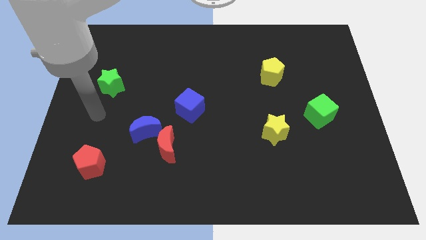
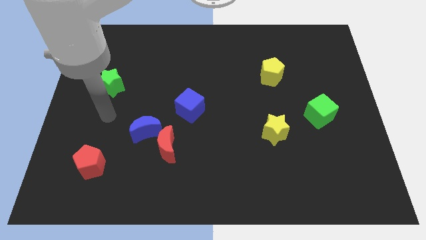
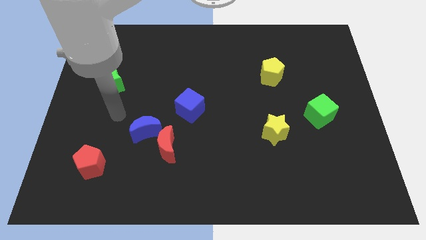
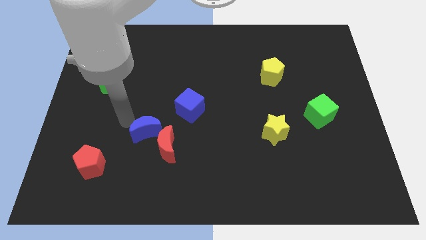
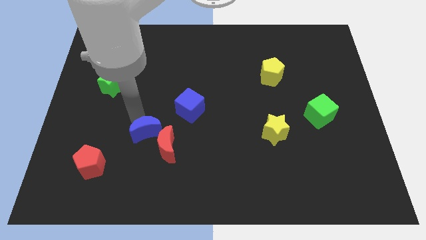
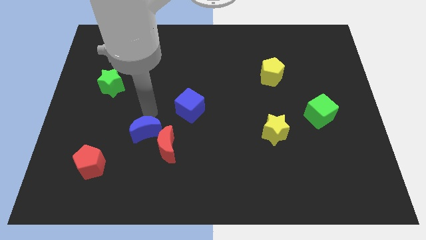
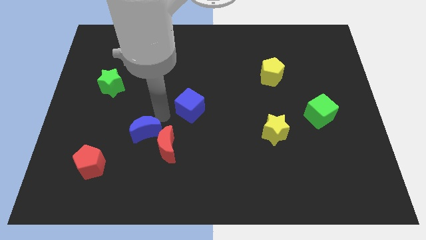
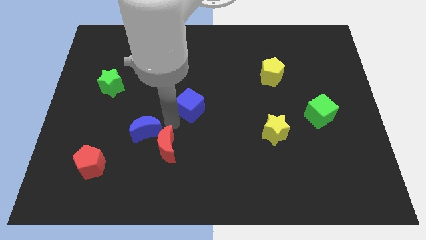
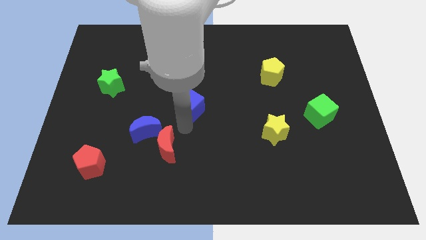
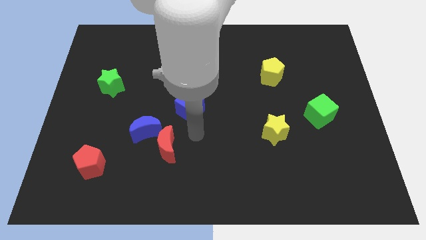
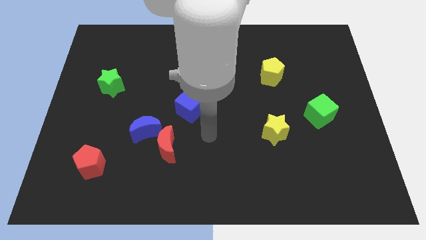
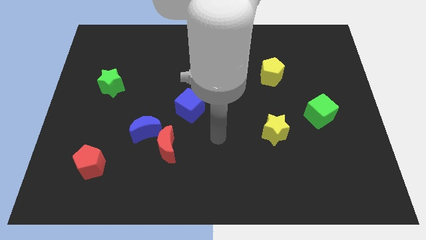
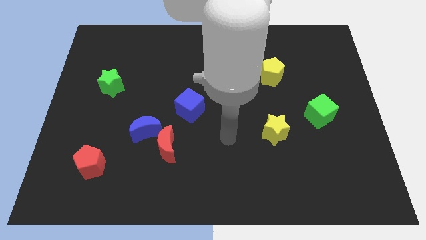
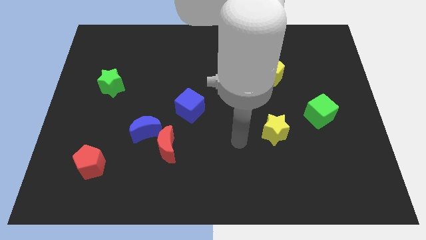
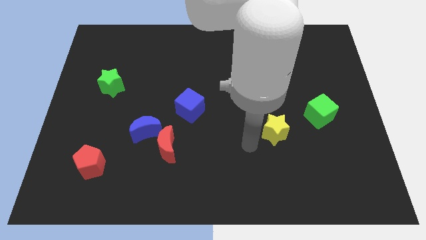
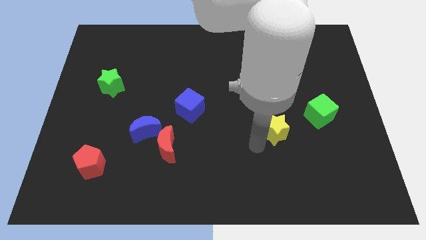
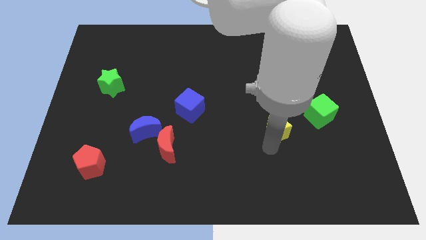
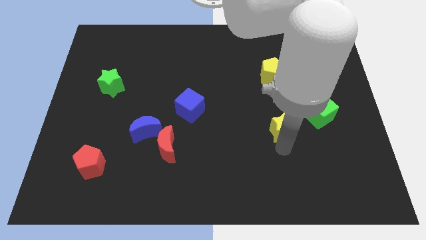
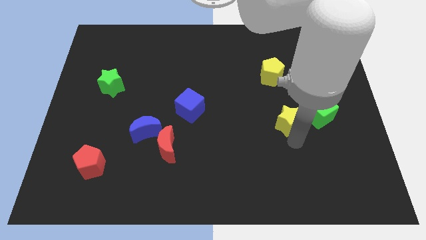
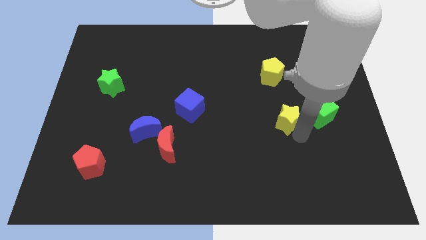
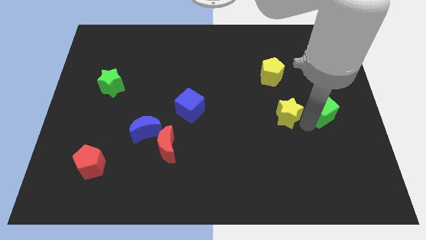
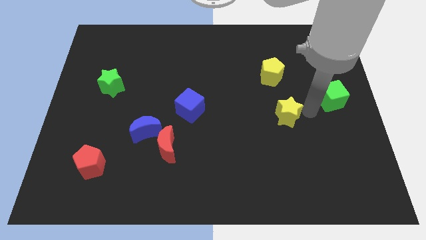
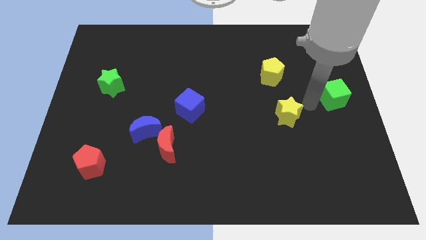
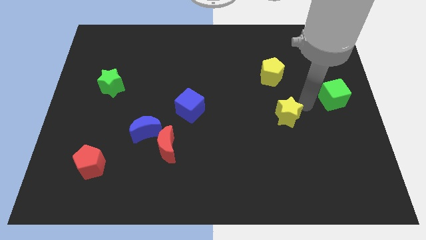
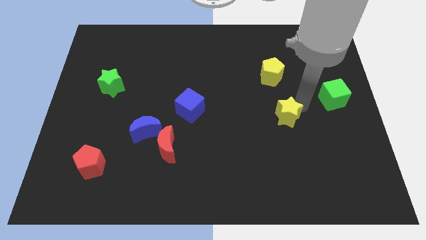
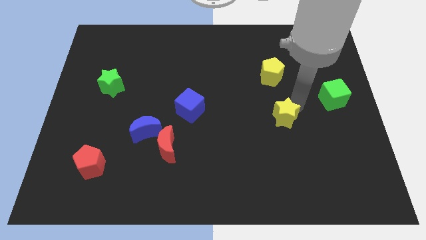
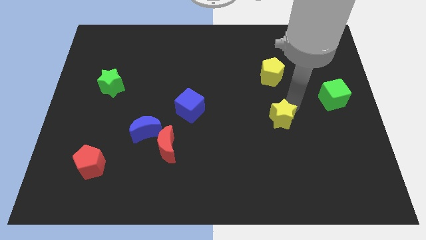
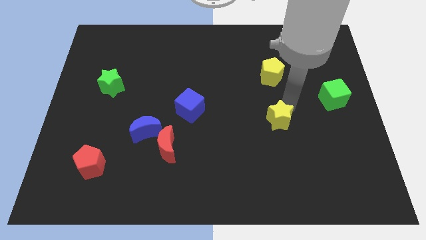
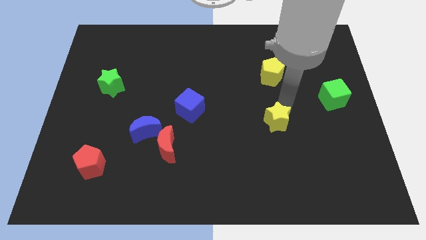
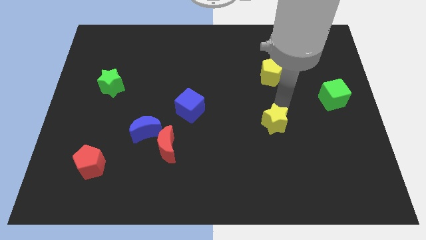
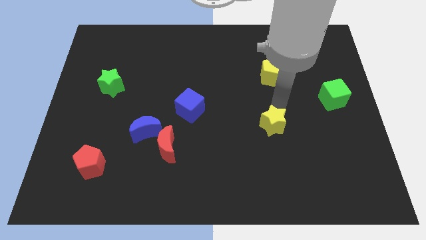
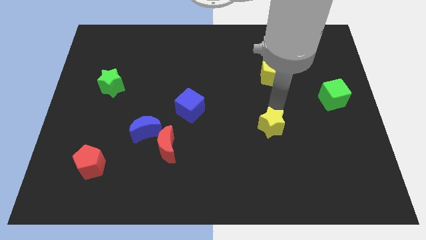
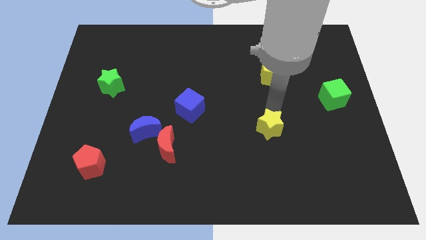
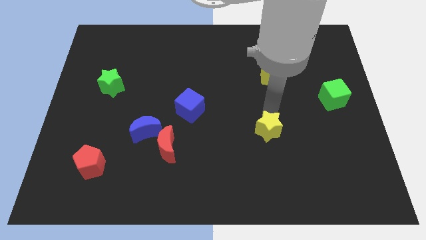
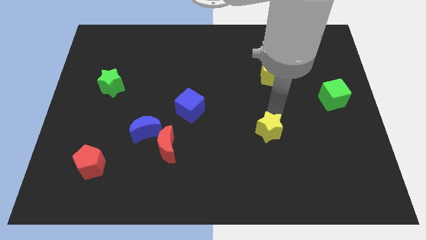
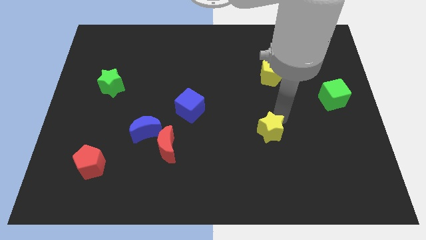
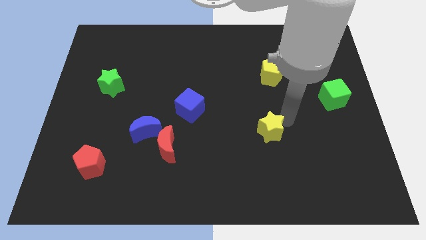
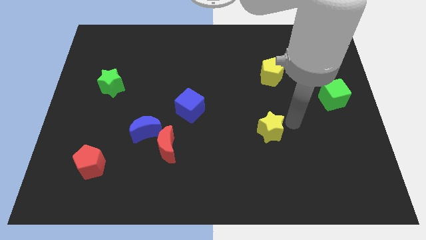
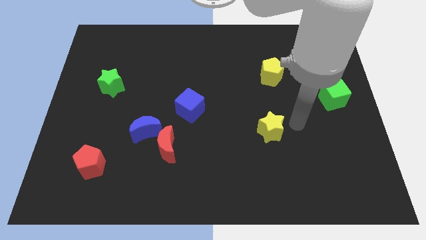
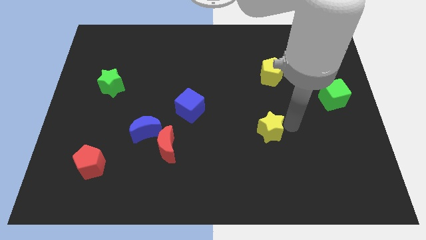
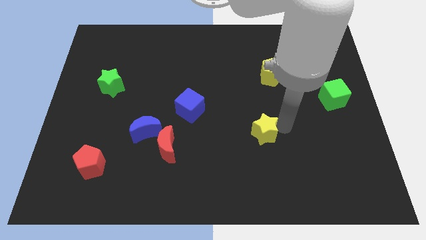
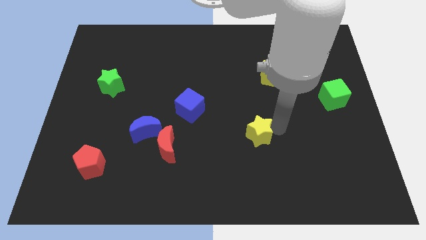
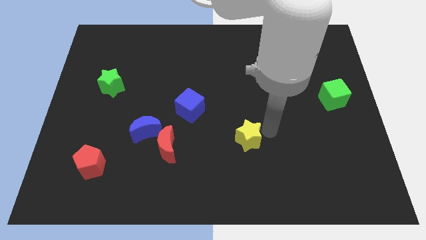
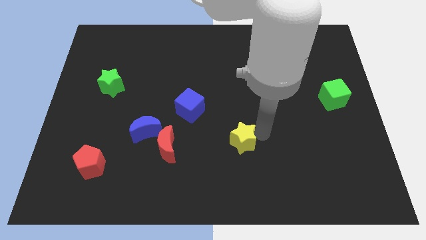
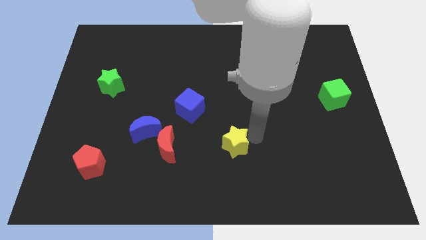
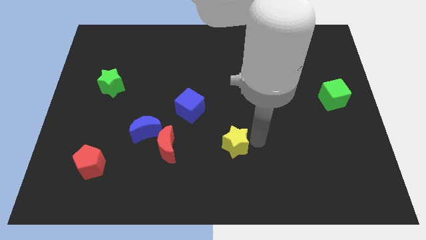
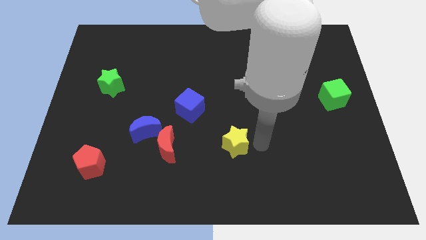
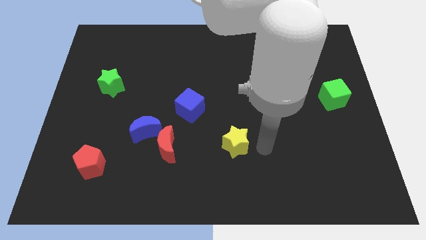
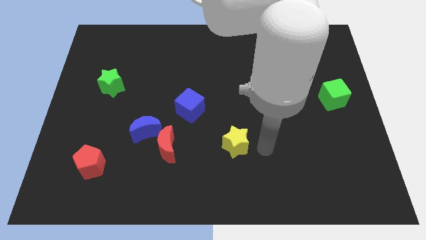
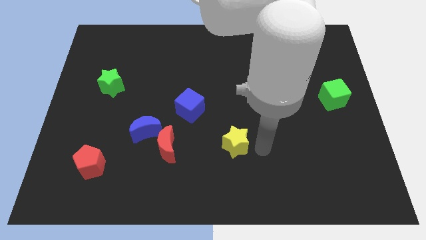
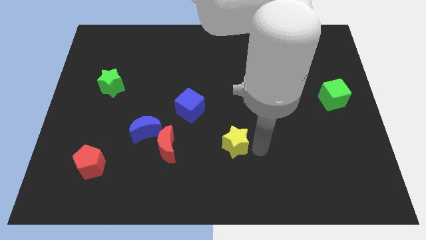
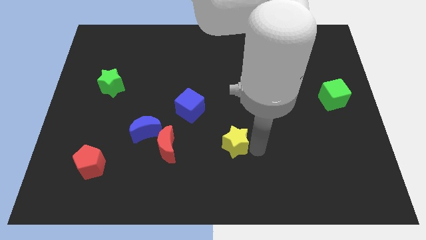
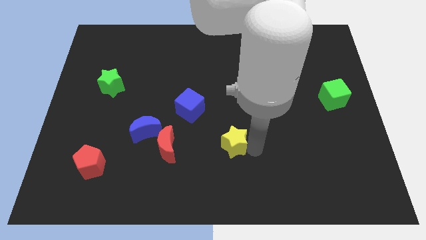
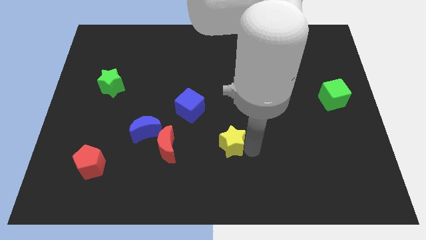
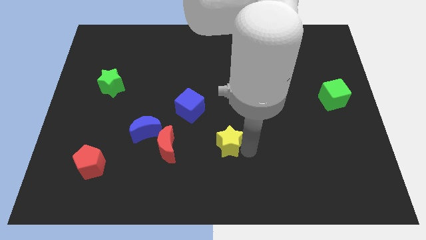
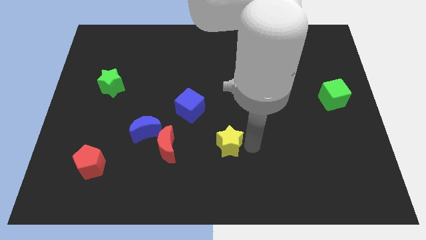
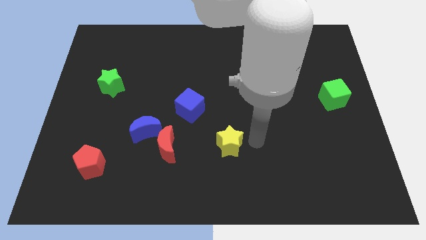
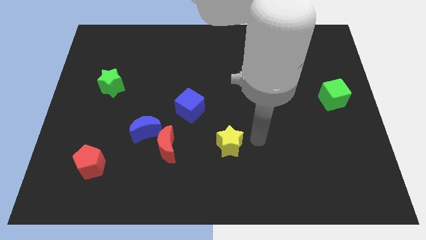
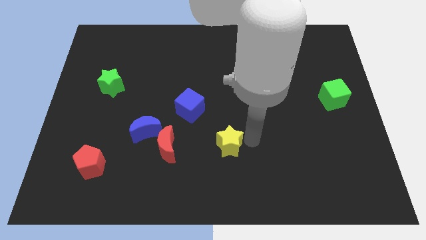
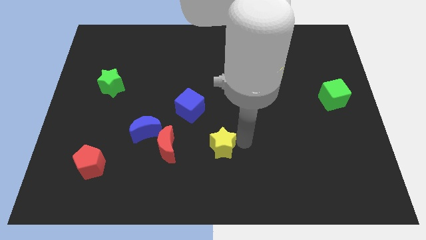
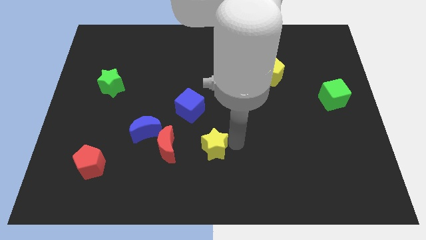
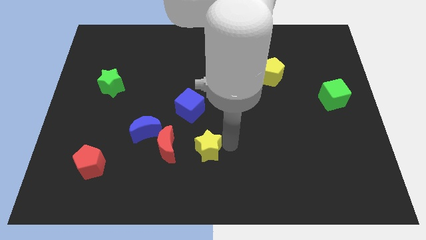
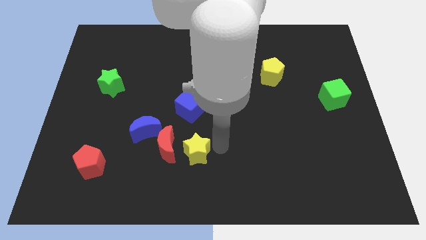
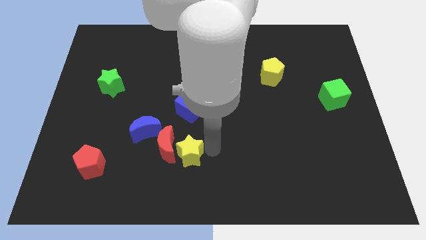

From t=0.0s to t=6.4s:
push the yellow star to the red moon

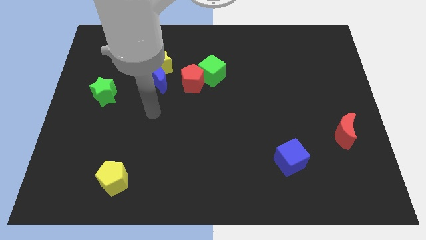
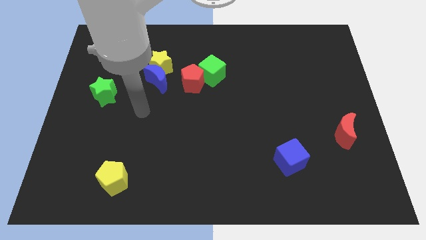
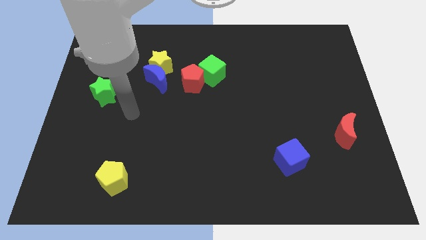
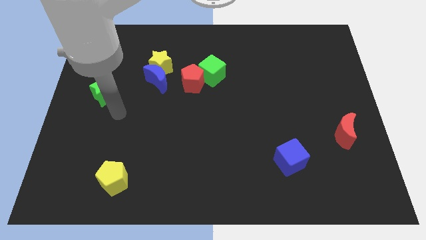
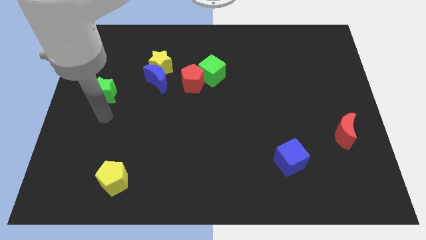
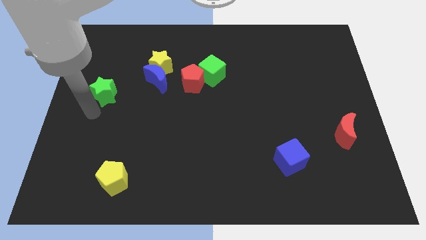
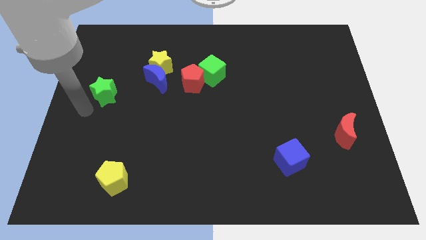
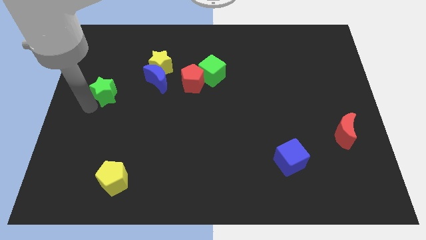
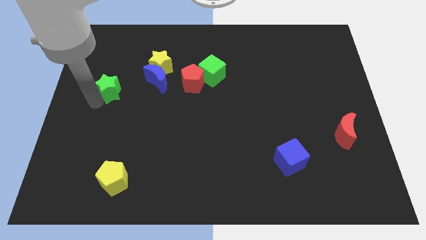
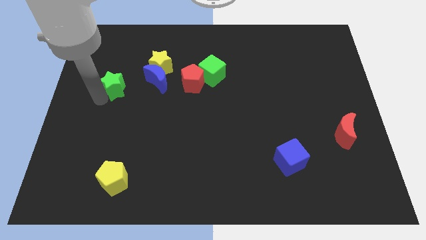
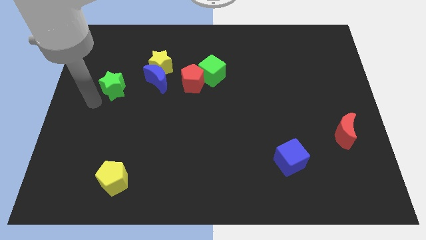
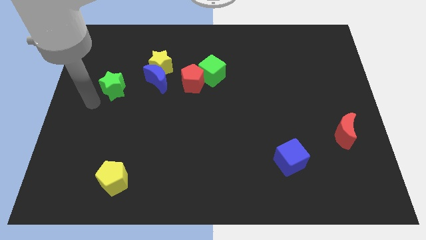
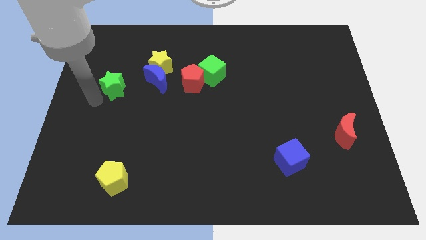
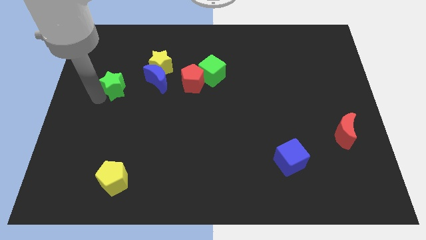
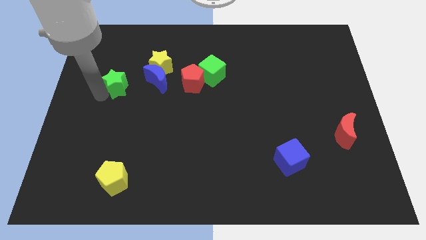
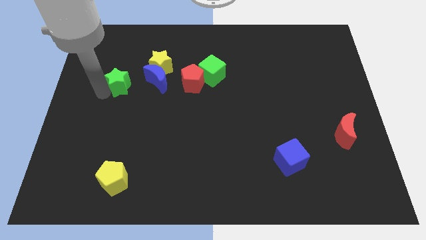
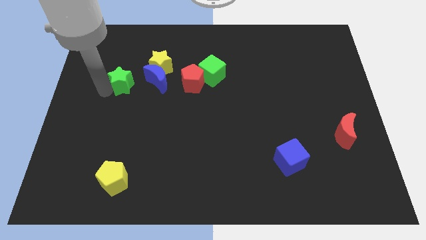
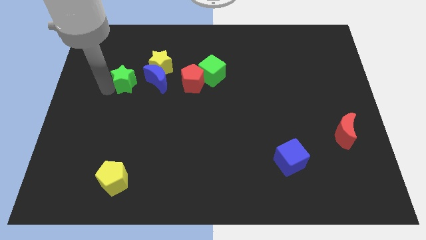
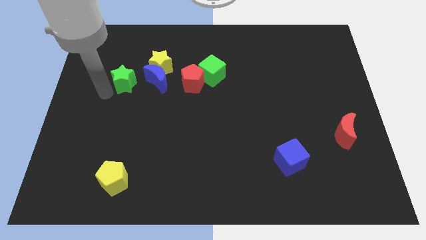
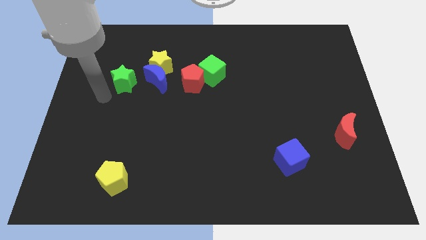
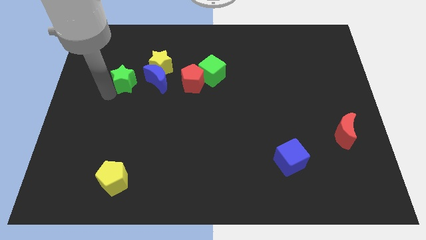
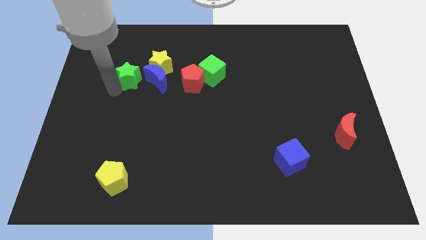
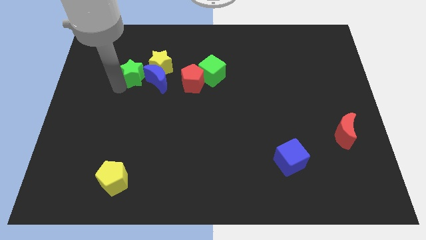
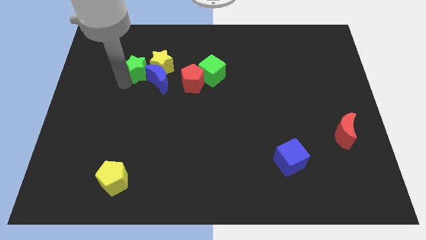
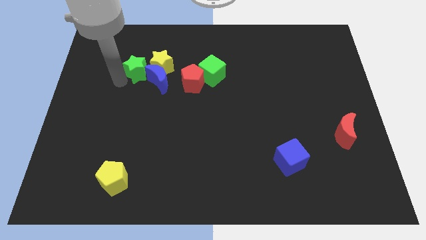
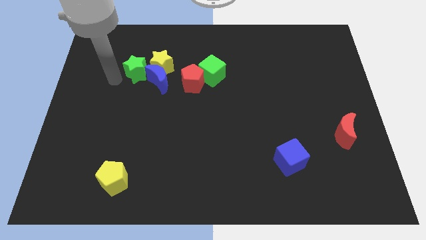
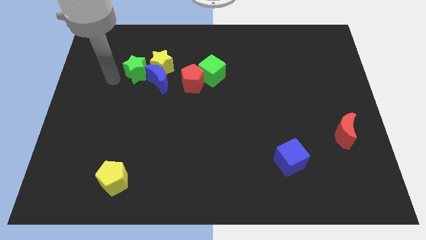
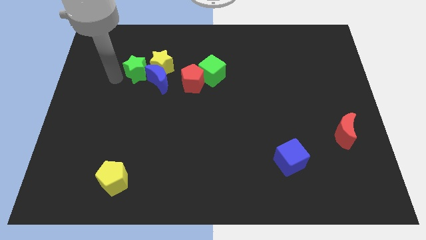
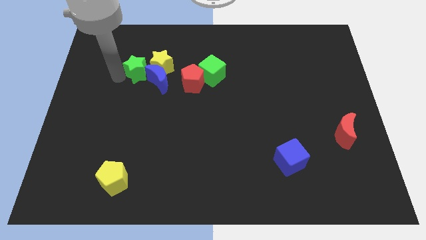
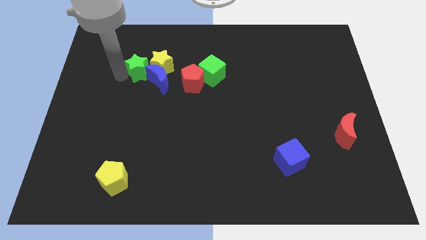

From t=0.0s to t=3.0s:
move the green star next to the yellow star
